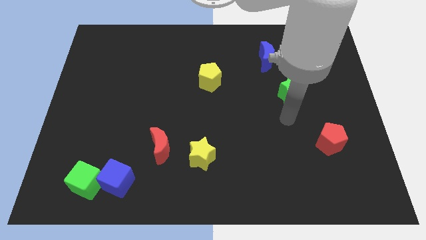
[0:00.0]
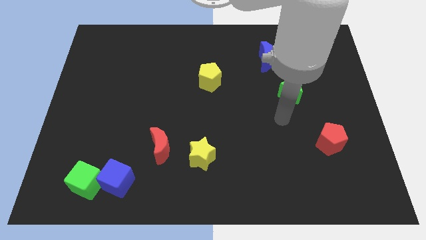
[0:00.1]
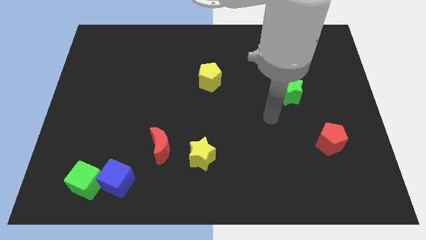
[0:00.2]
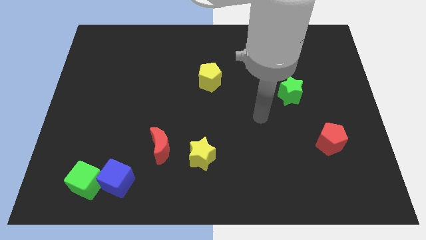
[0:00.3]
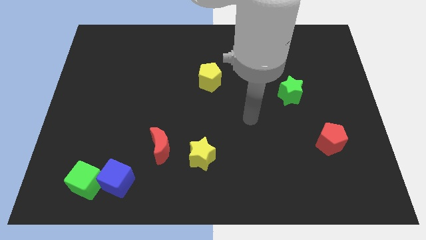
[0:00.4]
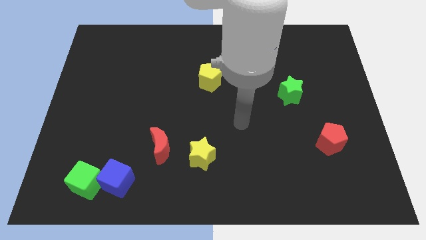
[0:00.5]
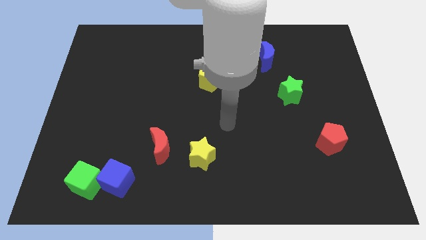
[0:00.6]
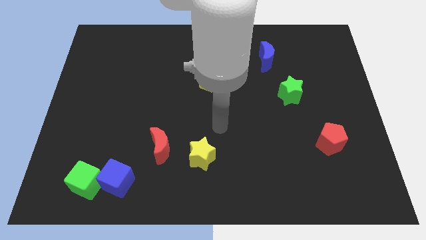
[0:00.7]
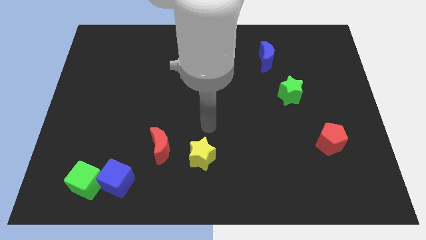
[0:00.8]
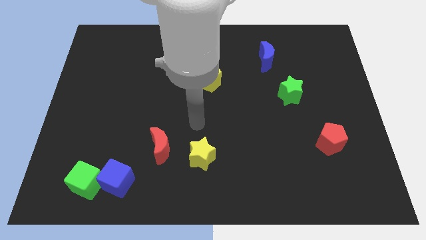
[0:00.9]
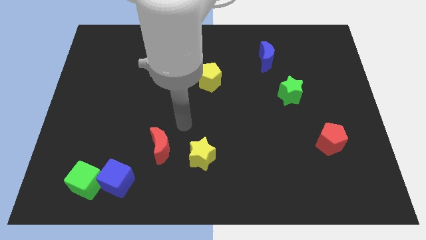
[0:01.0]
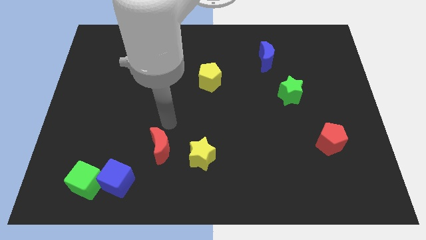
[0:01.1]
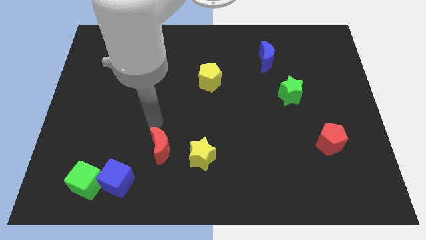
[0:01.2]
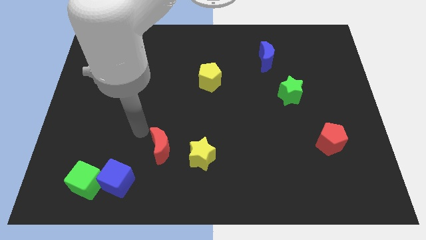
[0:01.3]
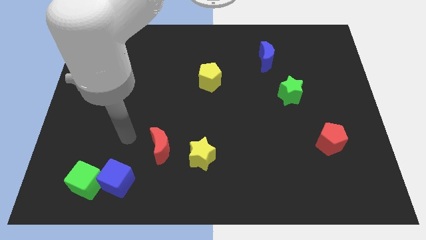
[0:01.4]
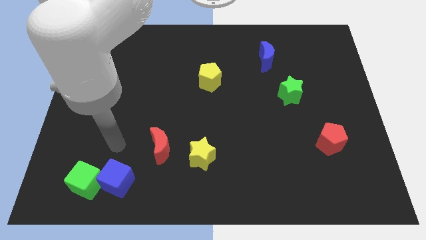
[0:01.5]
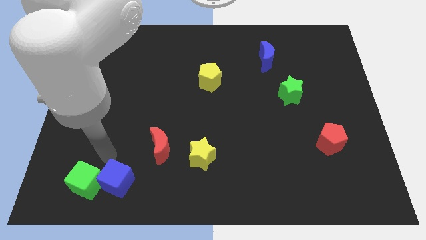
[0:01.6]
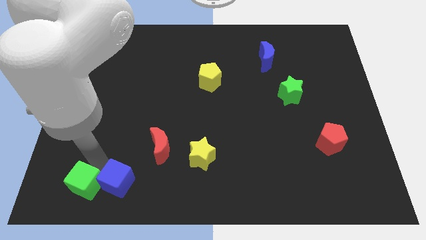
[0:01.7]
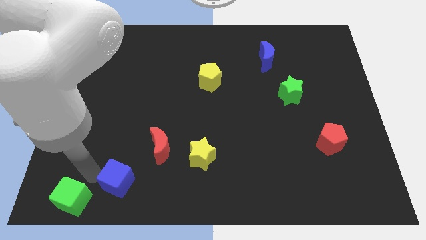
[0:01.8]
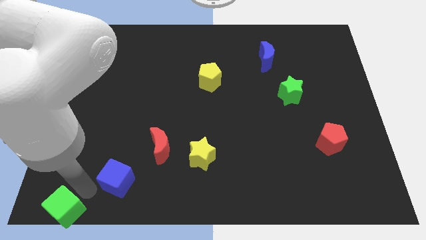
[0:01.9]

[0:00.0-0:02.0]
separate the blue cube from the green cube

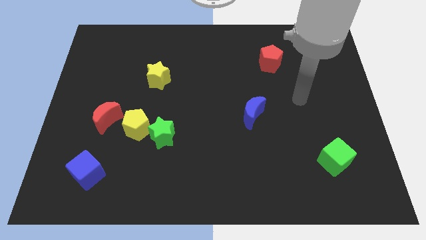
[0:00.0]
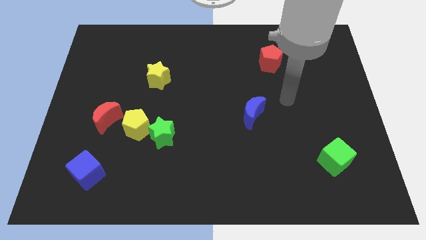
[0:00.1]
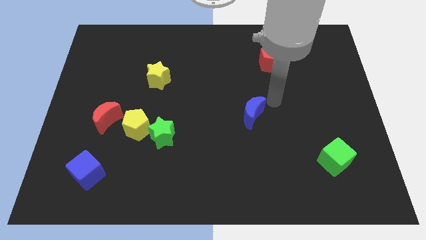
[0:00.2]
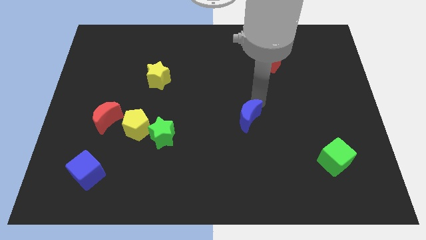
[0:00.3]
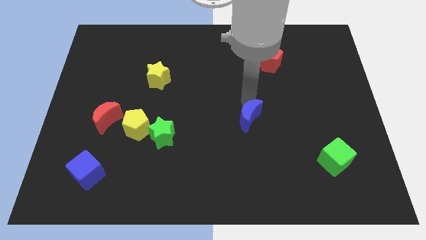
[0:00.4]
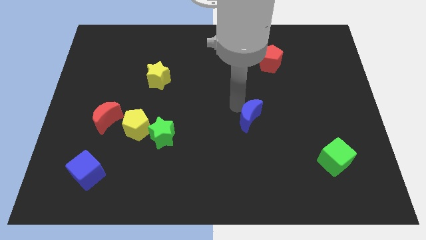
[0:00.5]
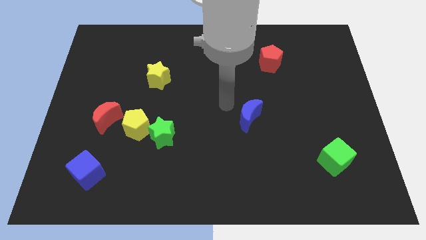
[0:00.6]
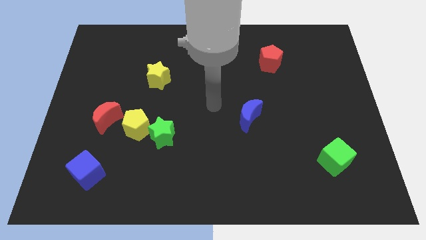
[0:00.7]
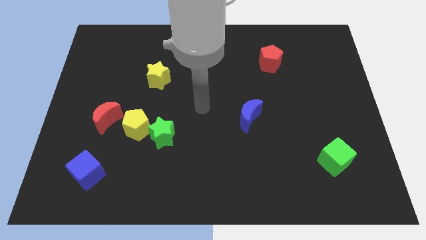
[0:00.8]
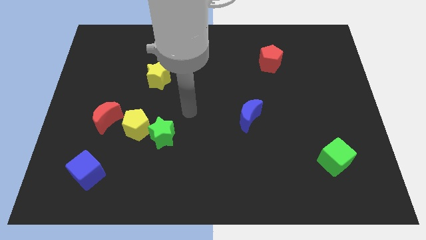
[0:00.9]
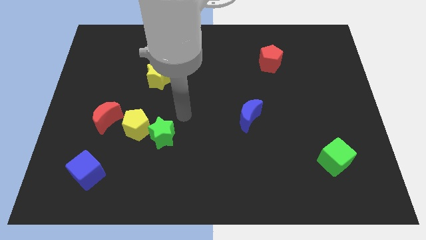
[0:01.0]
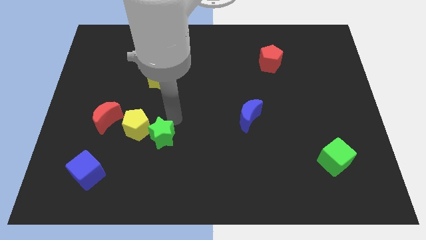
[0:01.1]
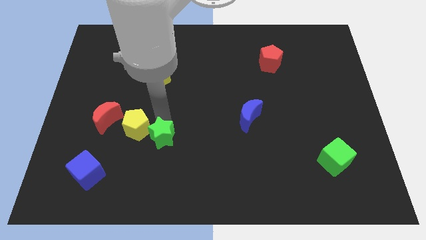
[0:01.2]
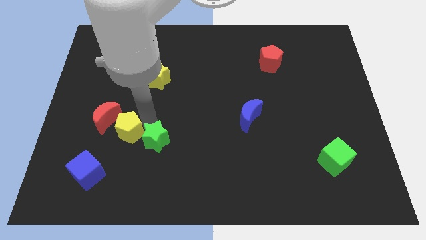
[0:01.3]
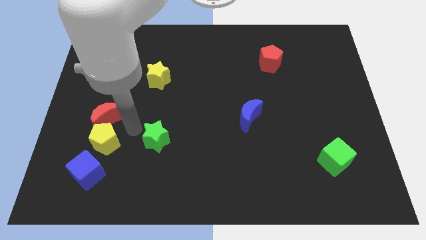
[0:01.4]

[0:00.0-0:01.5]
move the green star away from the yellow pentagon

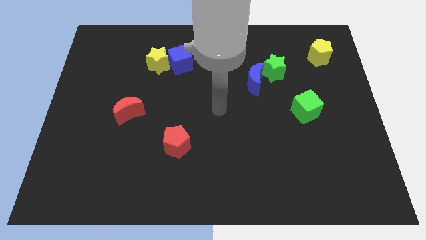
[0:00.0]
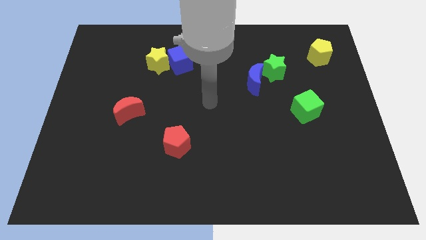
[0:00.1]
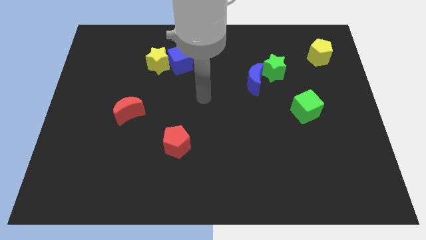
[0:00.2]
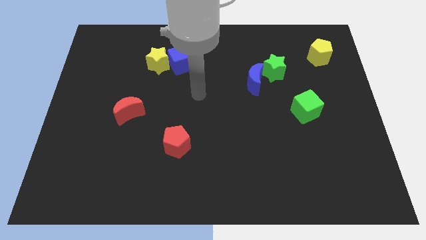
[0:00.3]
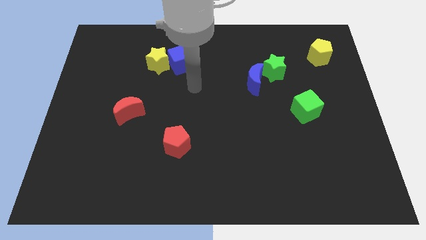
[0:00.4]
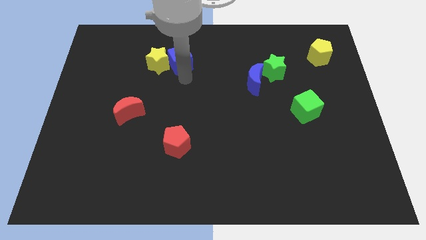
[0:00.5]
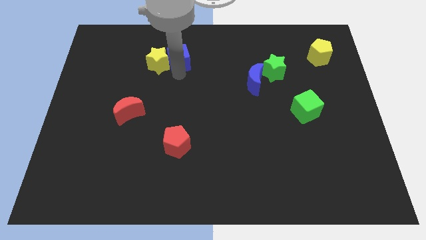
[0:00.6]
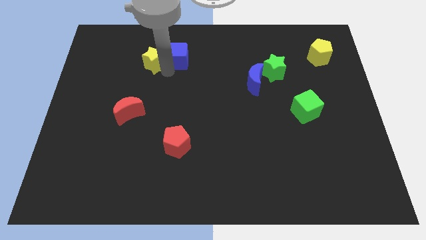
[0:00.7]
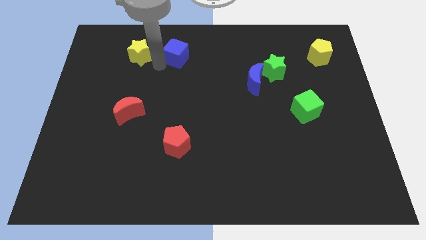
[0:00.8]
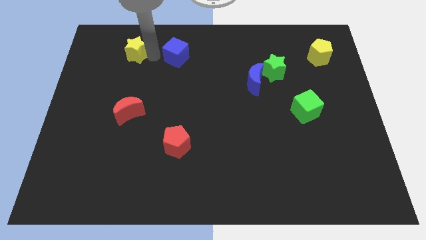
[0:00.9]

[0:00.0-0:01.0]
pull the blue cube apart from the yellow star

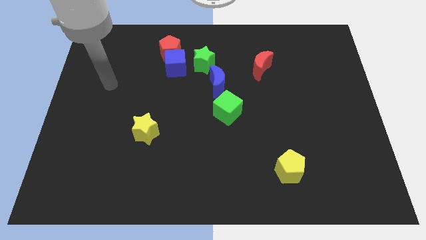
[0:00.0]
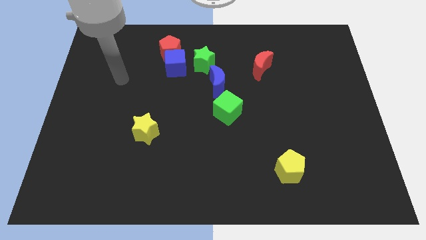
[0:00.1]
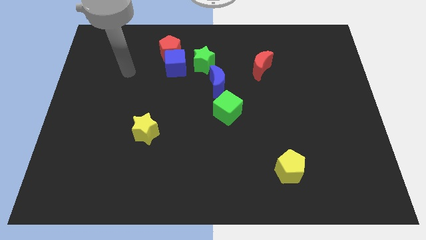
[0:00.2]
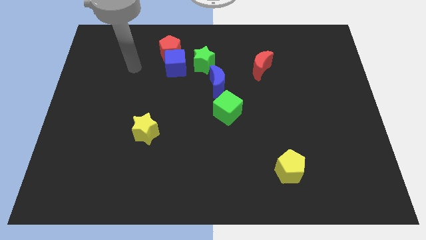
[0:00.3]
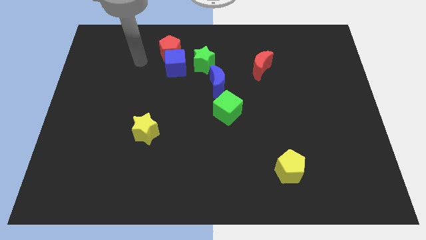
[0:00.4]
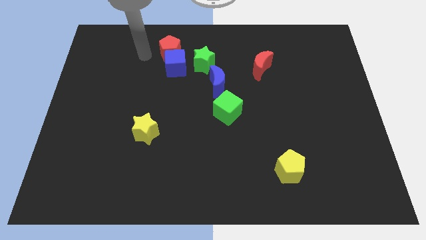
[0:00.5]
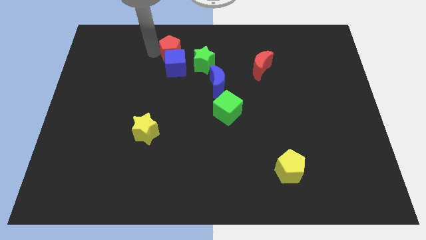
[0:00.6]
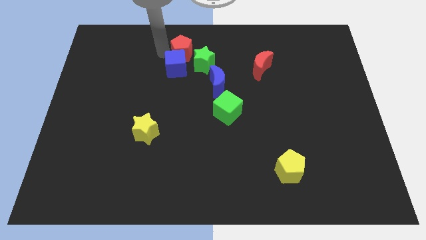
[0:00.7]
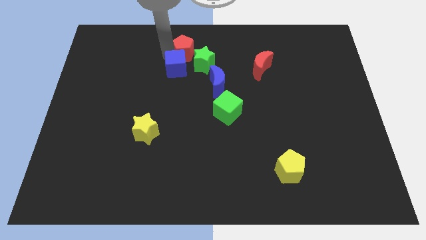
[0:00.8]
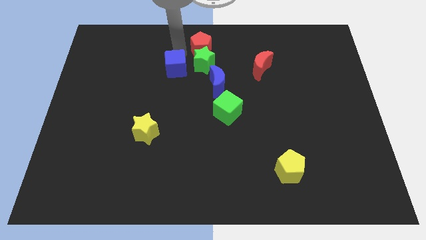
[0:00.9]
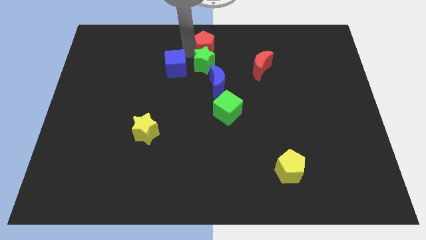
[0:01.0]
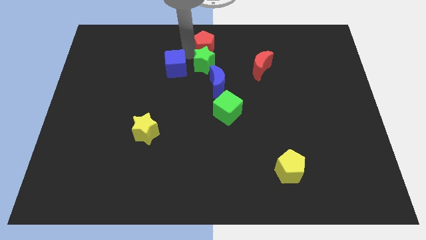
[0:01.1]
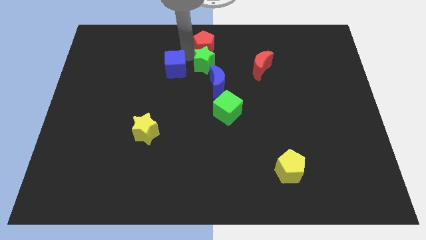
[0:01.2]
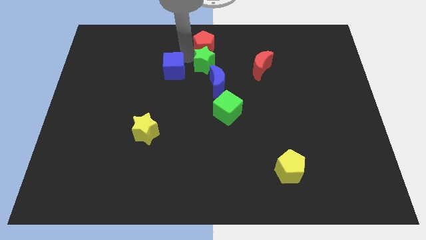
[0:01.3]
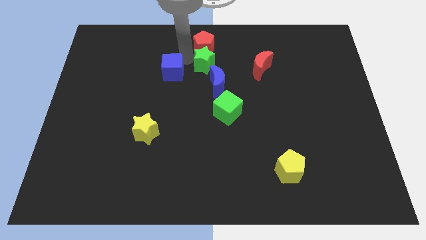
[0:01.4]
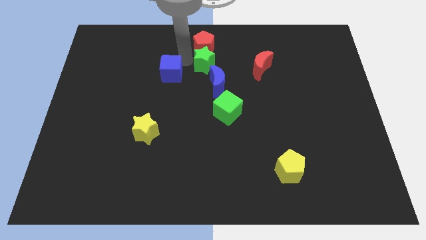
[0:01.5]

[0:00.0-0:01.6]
move the blue cube away from the red pentagon and green star

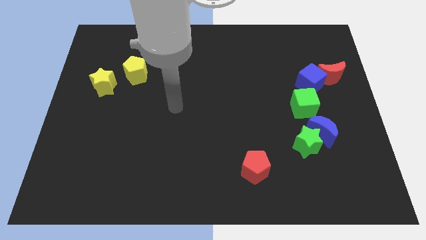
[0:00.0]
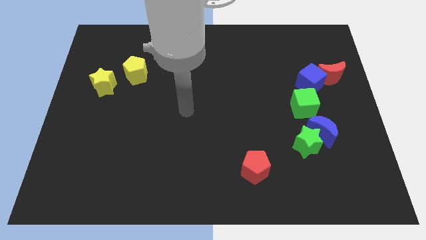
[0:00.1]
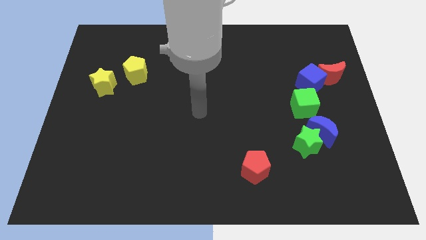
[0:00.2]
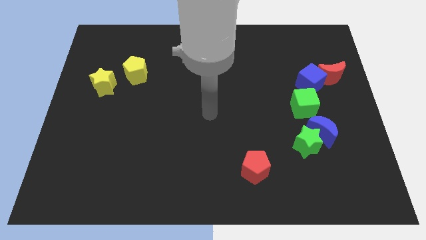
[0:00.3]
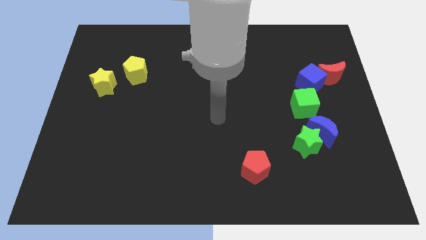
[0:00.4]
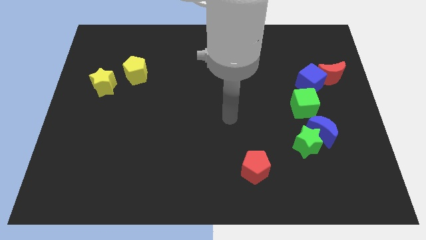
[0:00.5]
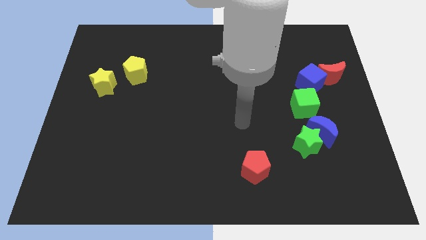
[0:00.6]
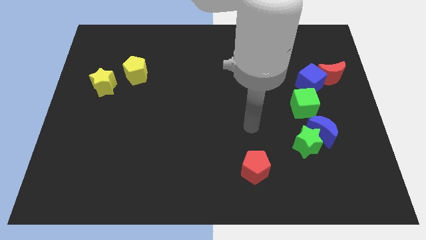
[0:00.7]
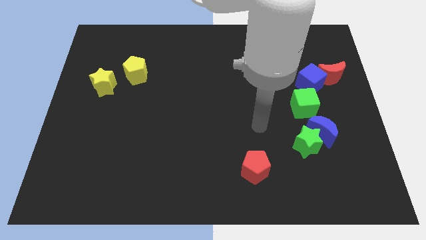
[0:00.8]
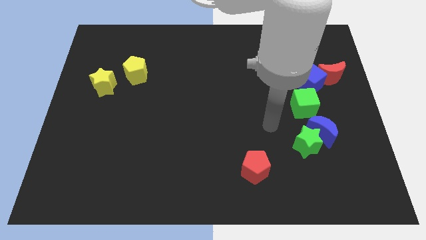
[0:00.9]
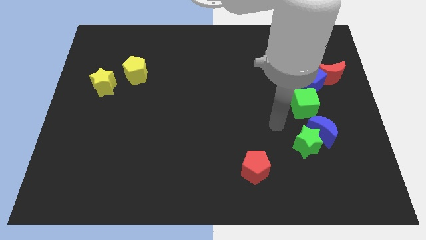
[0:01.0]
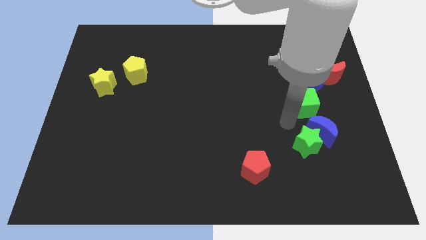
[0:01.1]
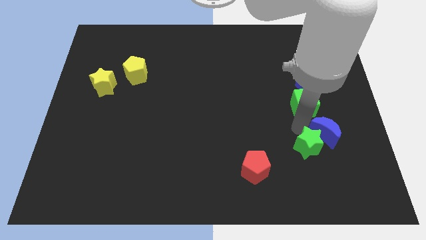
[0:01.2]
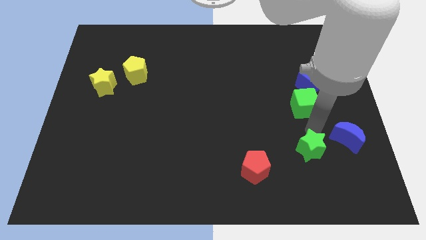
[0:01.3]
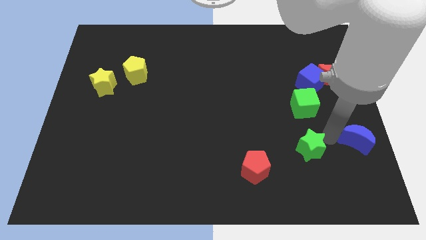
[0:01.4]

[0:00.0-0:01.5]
move the green star away from the blue moon

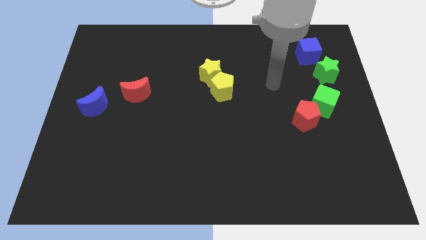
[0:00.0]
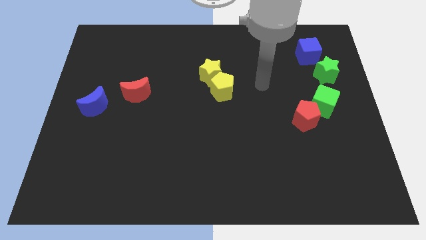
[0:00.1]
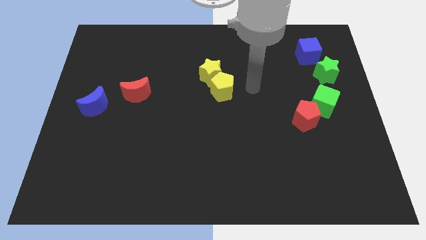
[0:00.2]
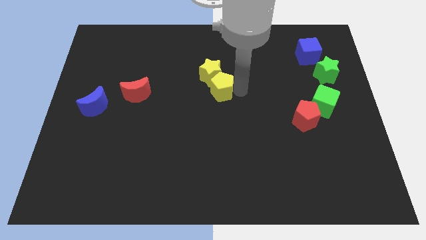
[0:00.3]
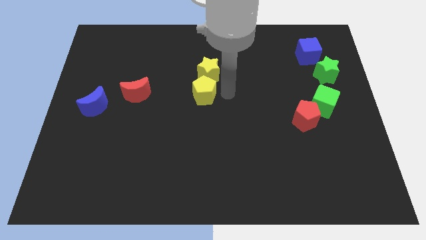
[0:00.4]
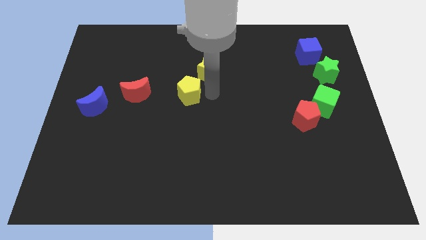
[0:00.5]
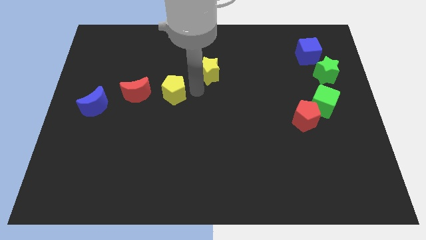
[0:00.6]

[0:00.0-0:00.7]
separate the yellow star from the yellow pentagon

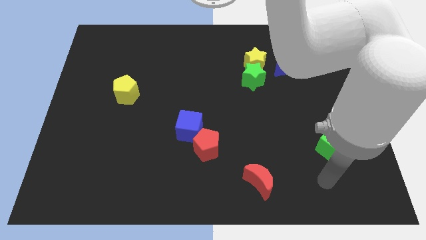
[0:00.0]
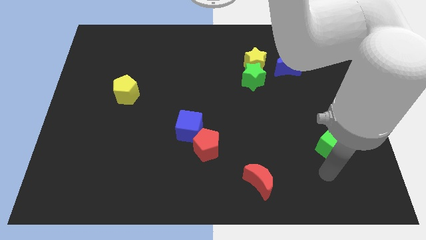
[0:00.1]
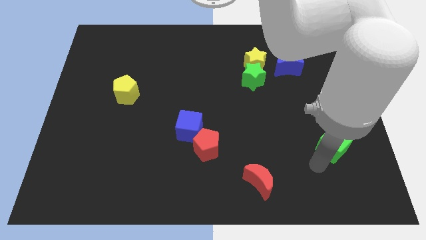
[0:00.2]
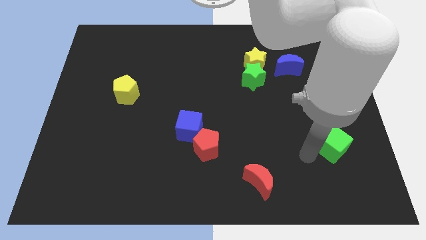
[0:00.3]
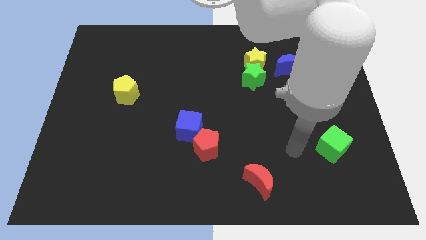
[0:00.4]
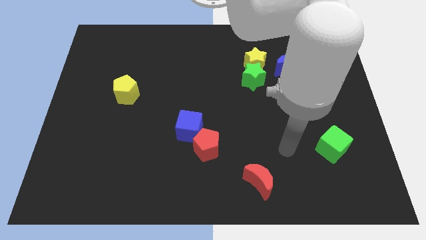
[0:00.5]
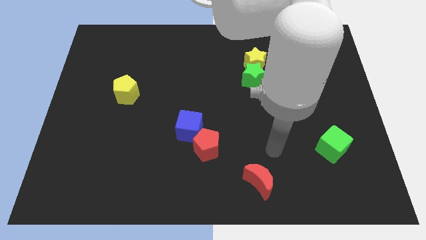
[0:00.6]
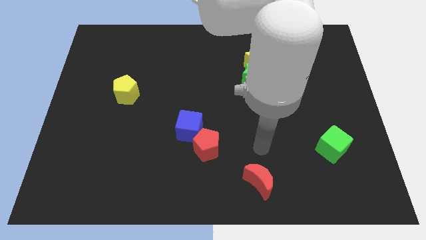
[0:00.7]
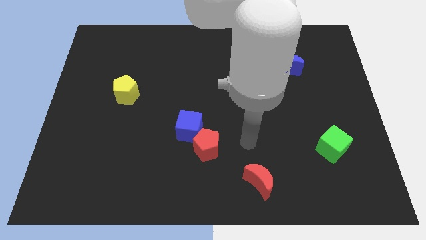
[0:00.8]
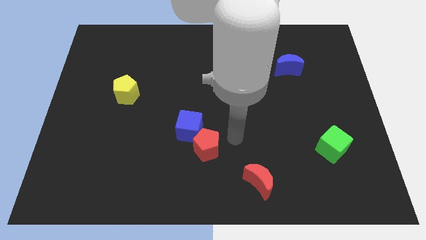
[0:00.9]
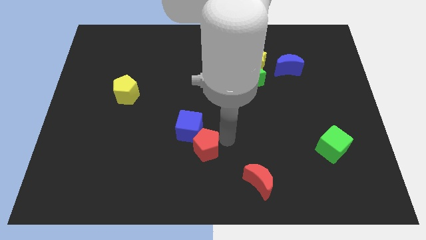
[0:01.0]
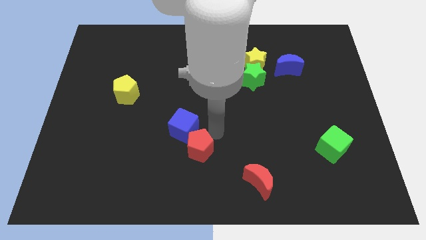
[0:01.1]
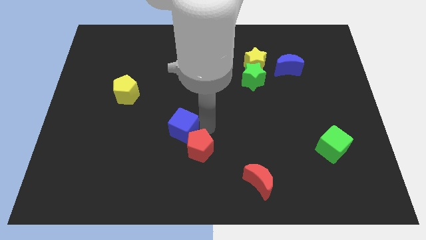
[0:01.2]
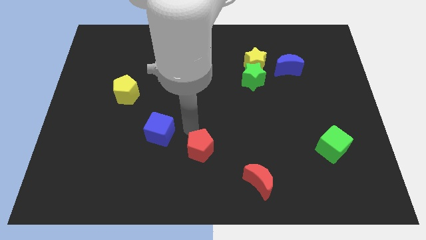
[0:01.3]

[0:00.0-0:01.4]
separate the red pentagon from the blue cube
